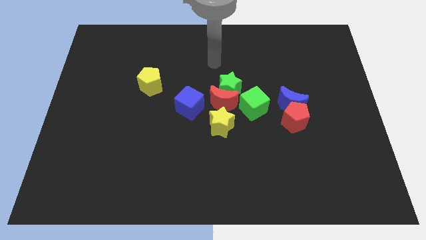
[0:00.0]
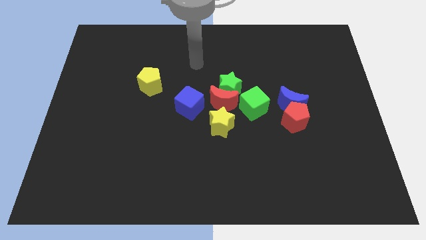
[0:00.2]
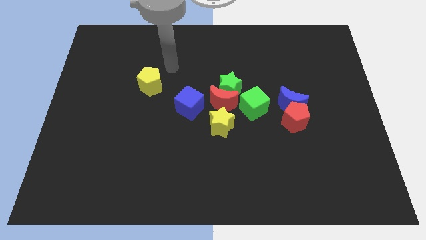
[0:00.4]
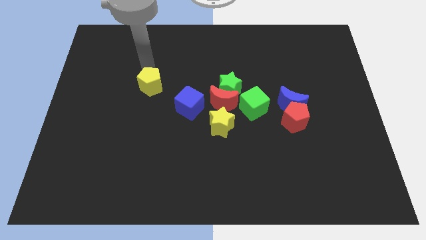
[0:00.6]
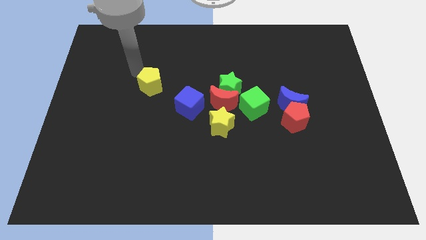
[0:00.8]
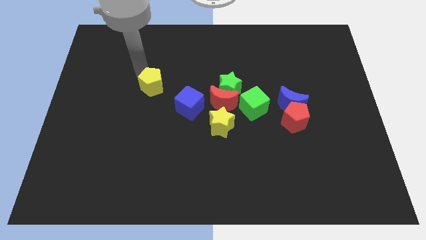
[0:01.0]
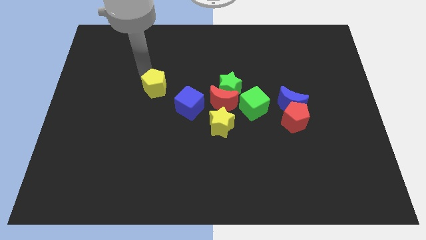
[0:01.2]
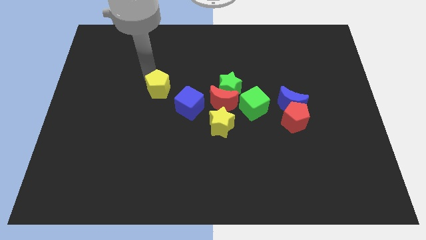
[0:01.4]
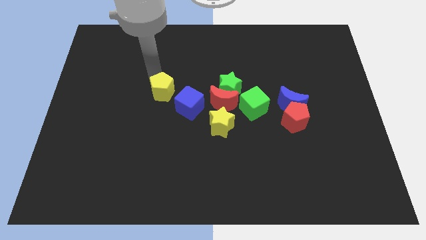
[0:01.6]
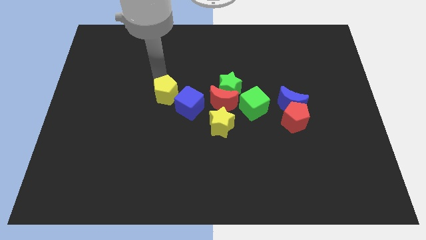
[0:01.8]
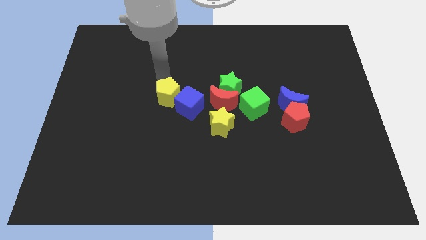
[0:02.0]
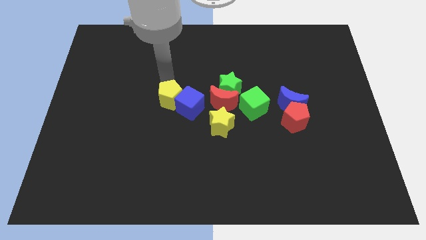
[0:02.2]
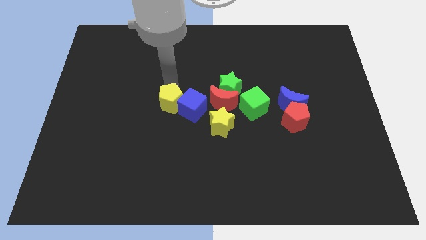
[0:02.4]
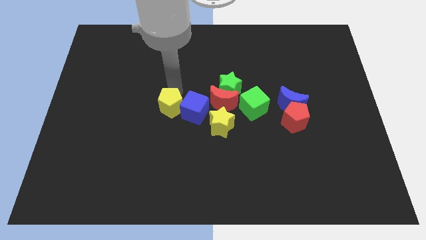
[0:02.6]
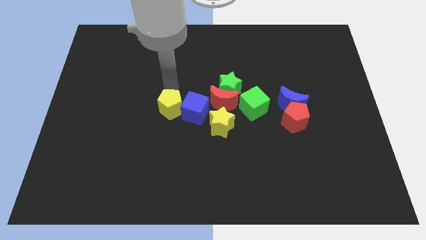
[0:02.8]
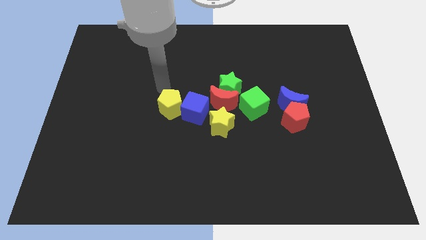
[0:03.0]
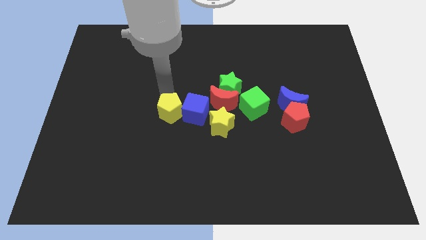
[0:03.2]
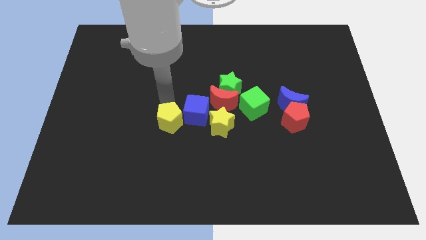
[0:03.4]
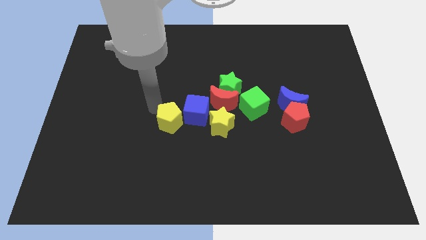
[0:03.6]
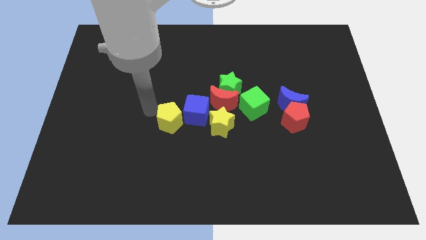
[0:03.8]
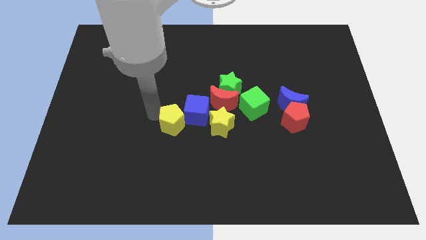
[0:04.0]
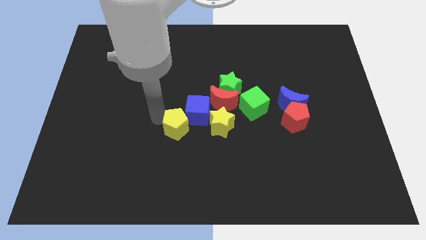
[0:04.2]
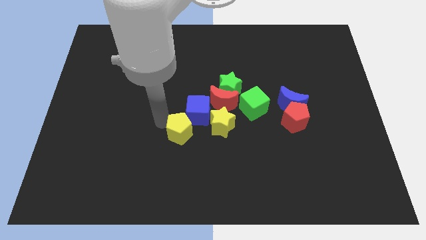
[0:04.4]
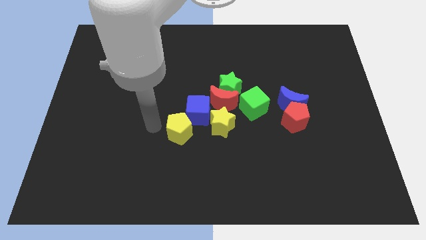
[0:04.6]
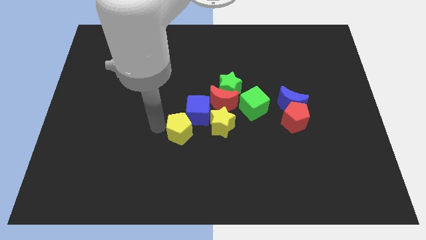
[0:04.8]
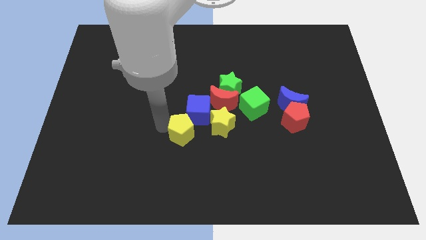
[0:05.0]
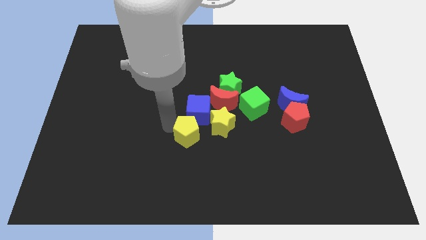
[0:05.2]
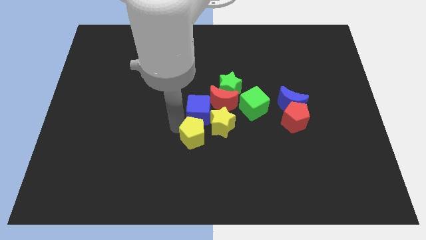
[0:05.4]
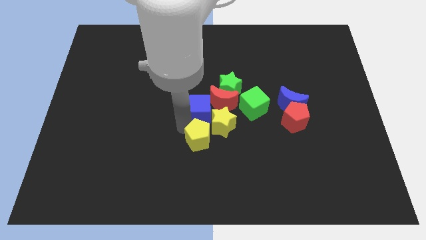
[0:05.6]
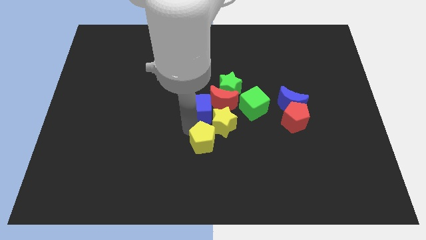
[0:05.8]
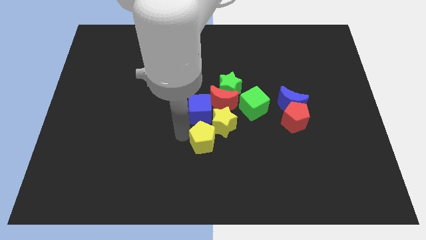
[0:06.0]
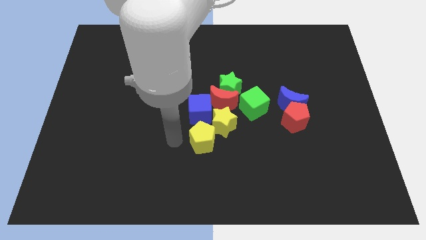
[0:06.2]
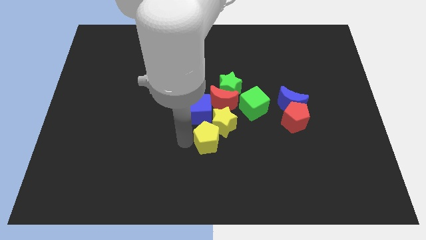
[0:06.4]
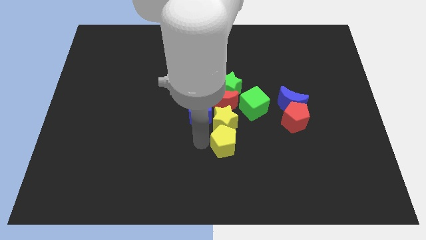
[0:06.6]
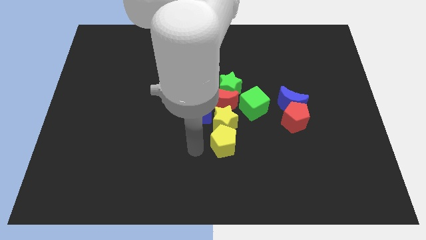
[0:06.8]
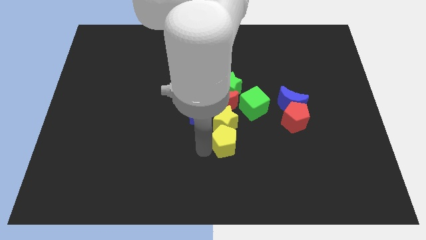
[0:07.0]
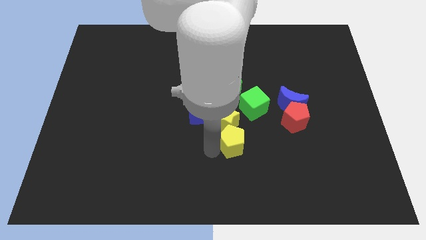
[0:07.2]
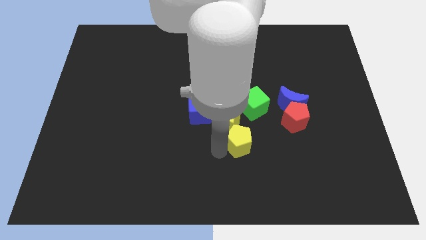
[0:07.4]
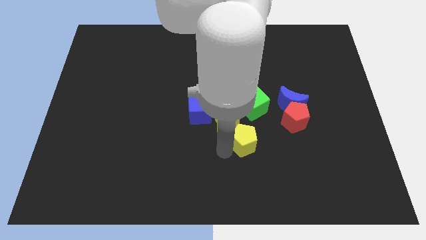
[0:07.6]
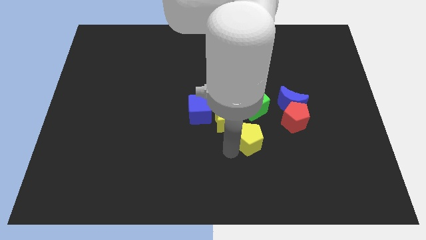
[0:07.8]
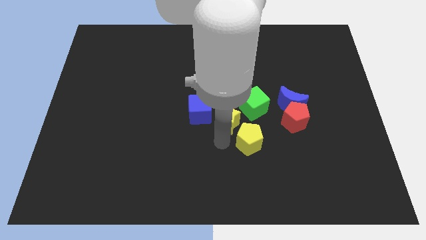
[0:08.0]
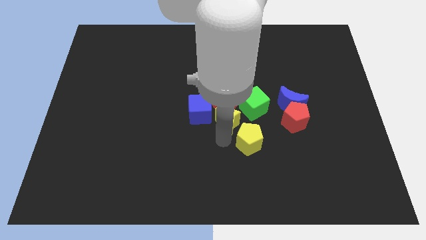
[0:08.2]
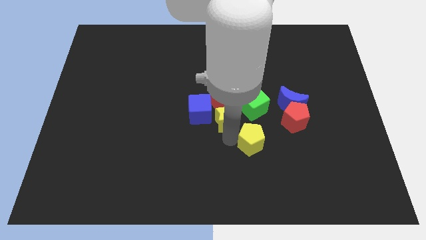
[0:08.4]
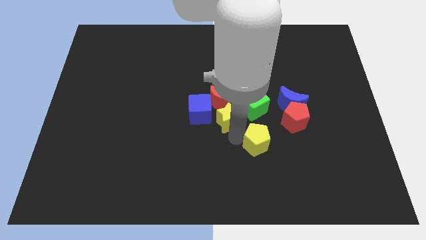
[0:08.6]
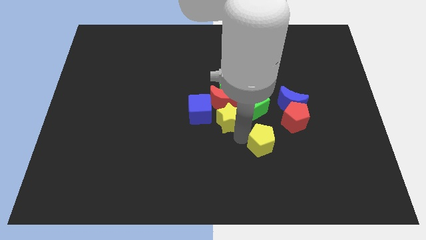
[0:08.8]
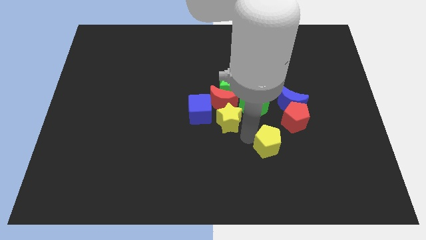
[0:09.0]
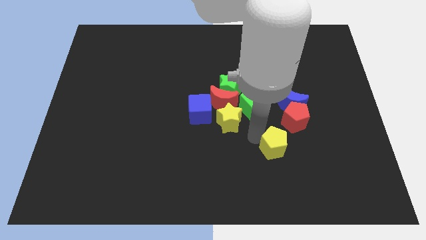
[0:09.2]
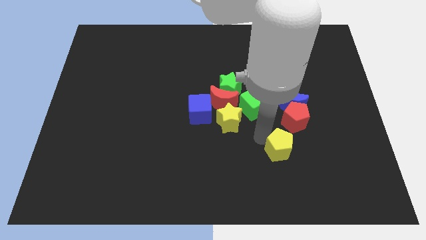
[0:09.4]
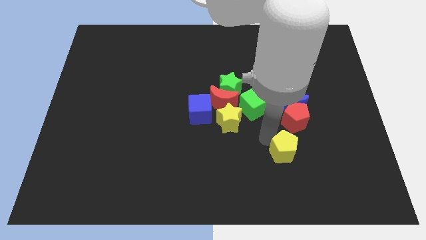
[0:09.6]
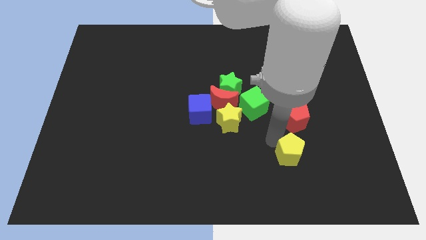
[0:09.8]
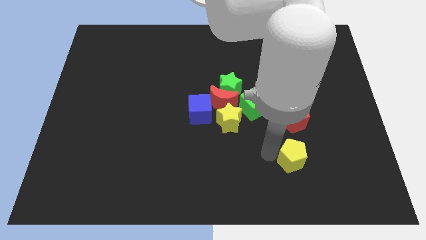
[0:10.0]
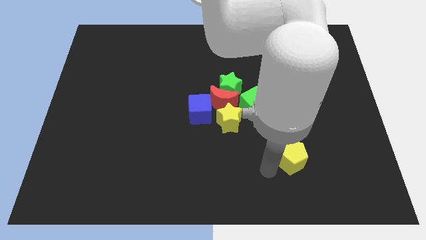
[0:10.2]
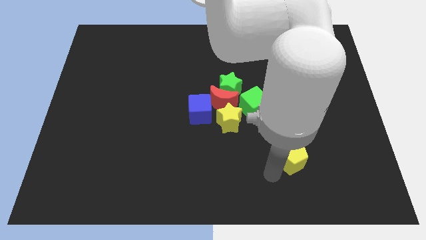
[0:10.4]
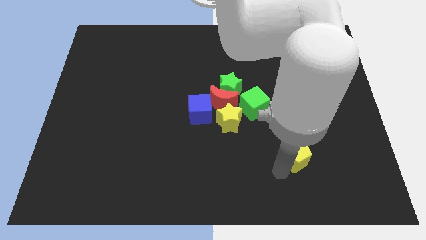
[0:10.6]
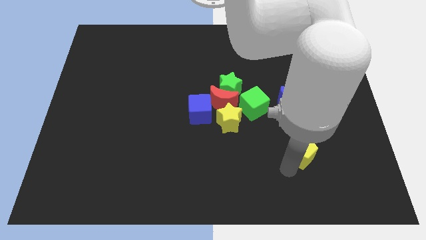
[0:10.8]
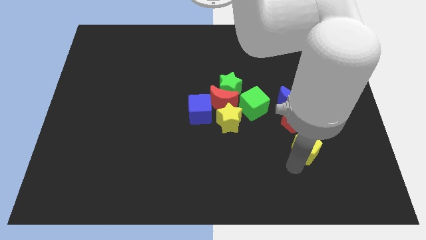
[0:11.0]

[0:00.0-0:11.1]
put the yellow pentagon to the bottom right side of the red pentagon

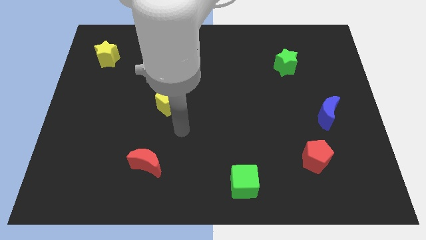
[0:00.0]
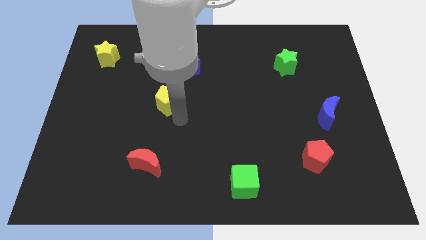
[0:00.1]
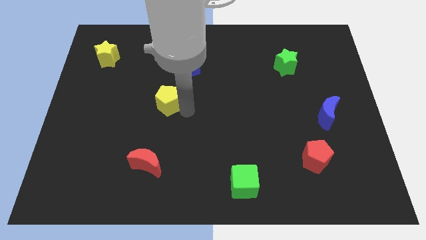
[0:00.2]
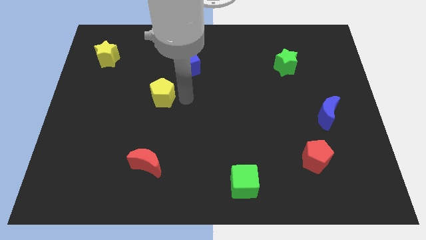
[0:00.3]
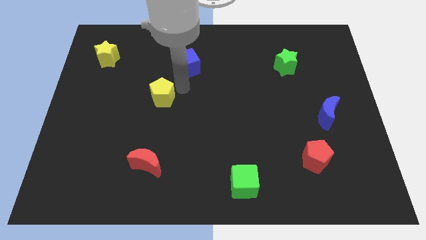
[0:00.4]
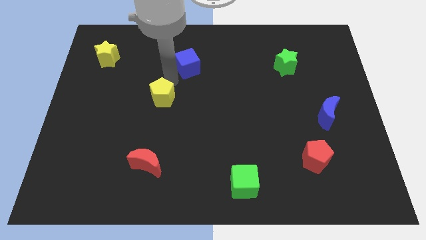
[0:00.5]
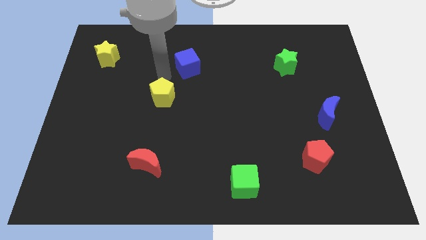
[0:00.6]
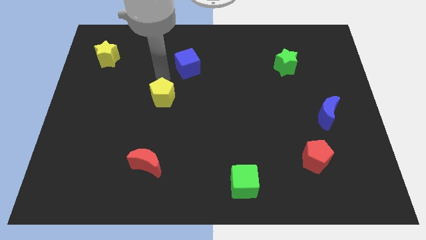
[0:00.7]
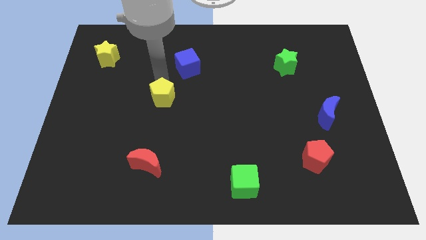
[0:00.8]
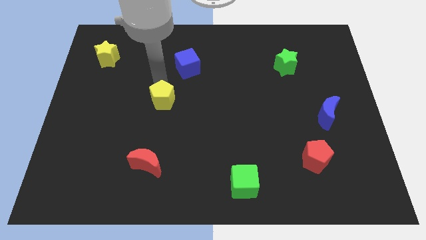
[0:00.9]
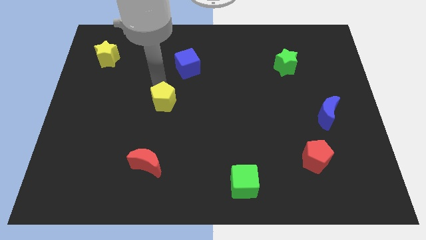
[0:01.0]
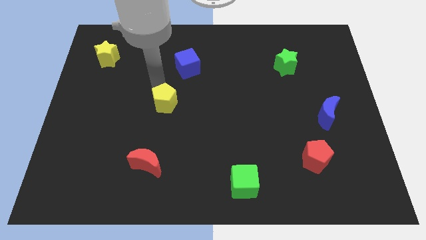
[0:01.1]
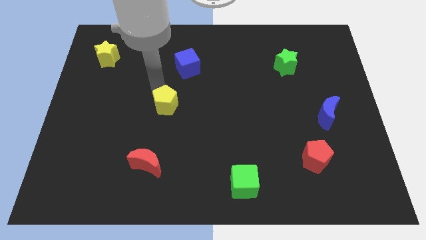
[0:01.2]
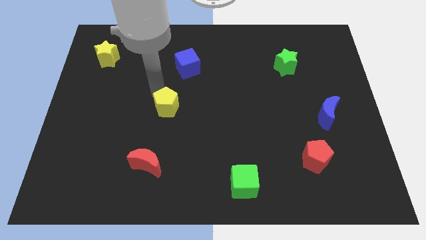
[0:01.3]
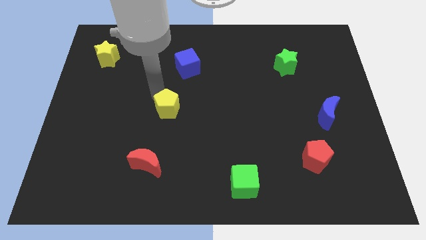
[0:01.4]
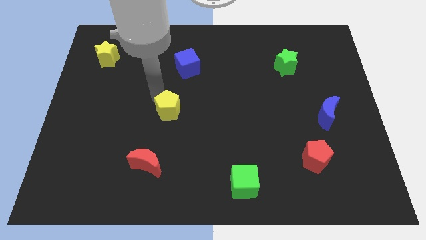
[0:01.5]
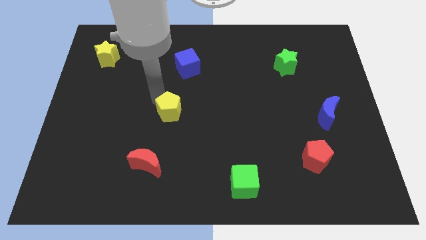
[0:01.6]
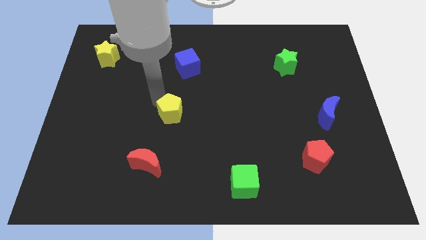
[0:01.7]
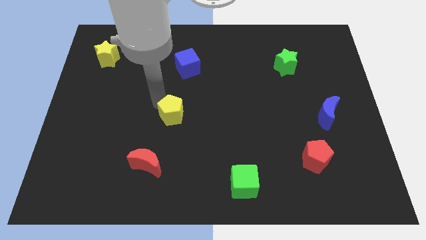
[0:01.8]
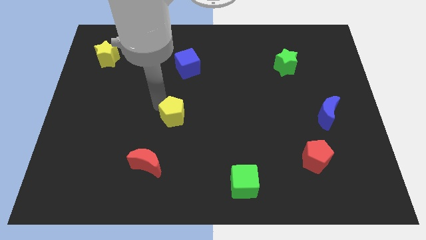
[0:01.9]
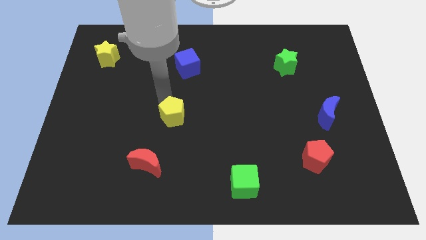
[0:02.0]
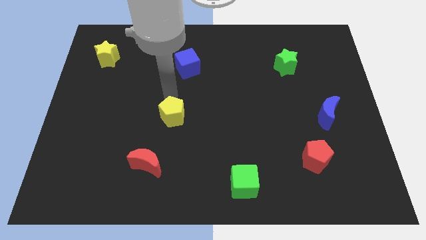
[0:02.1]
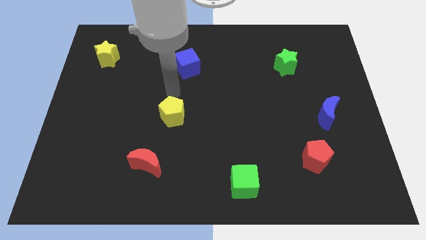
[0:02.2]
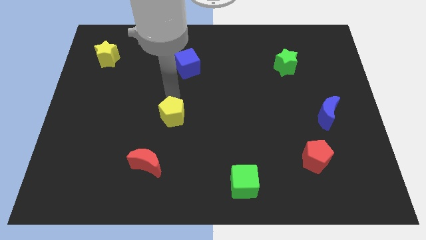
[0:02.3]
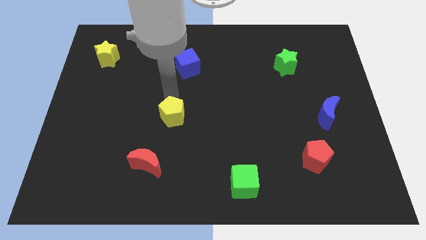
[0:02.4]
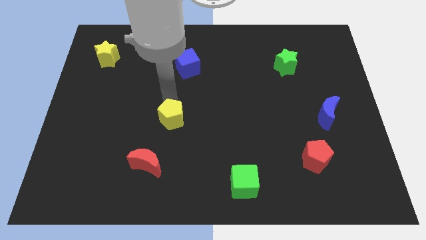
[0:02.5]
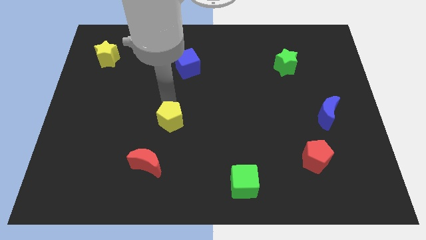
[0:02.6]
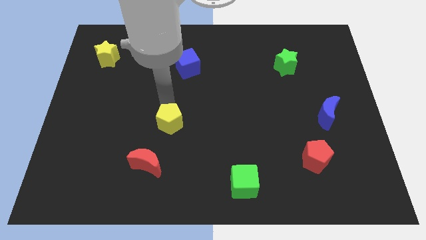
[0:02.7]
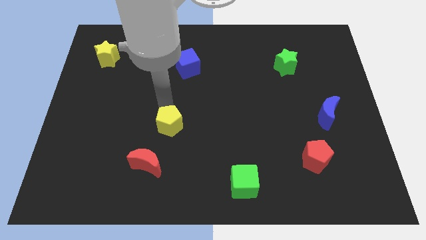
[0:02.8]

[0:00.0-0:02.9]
push the yellow pentagon diagonally up and to the right of the red moon
